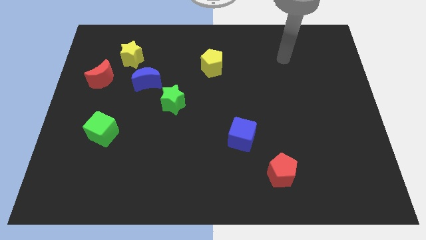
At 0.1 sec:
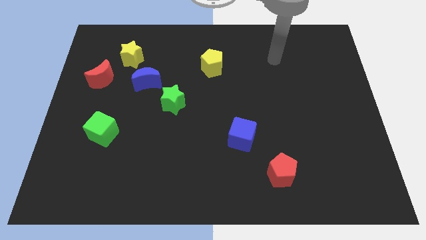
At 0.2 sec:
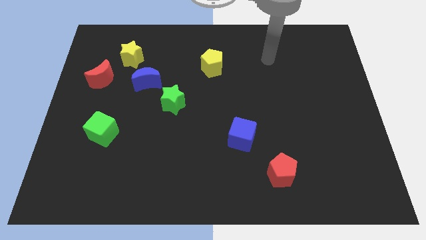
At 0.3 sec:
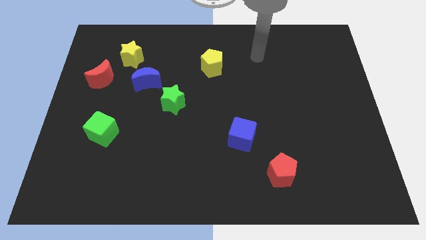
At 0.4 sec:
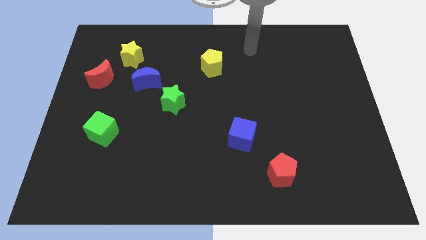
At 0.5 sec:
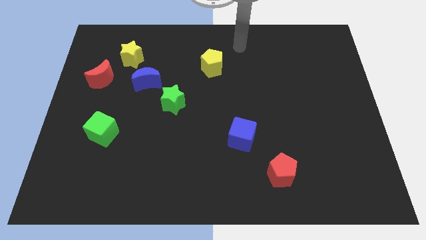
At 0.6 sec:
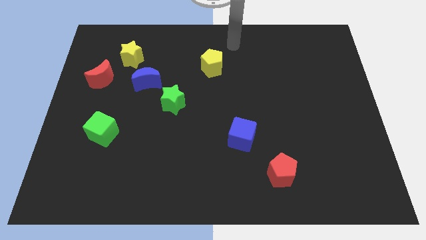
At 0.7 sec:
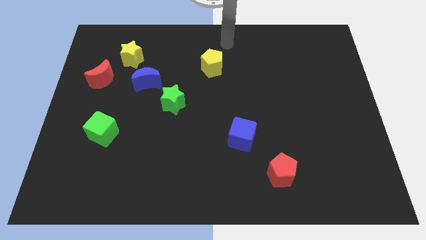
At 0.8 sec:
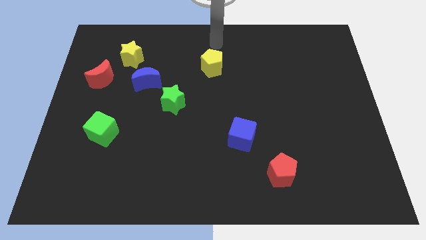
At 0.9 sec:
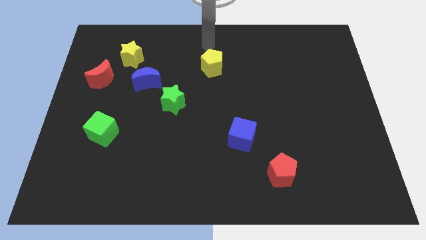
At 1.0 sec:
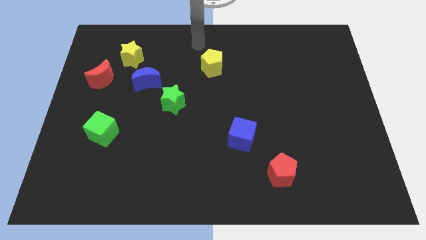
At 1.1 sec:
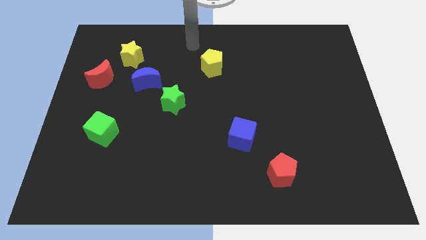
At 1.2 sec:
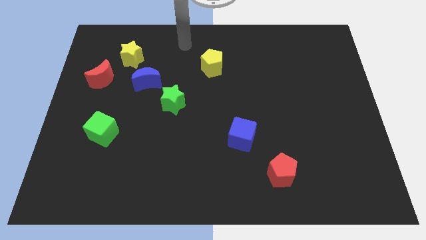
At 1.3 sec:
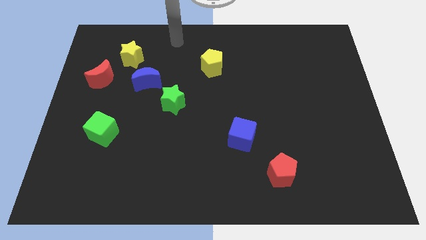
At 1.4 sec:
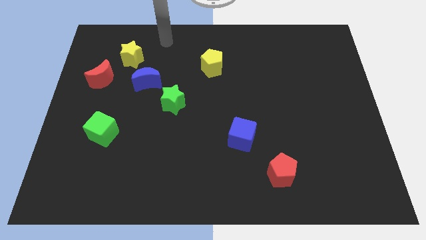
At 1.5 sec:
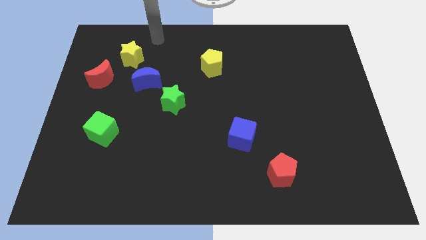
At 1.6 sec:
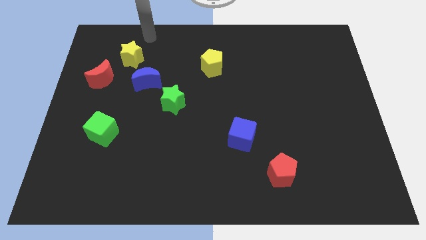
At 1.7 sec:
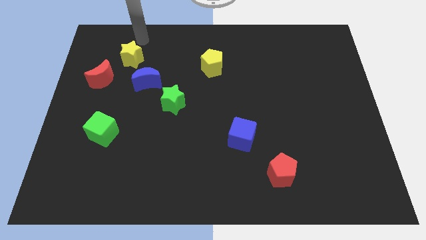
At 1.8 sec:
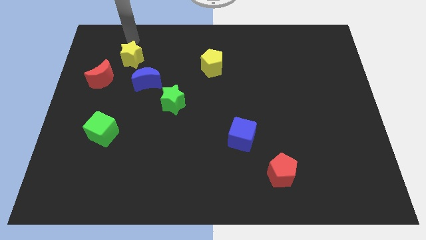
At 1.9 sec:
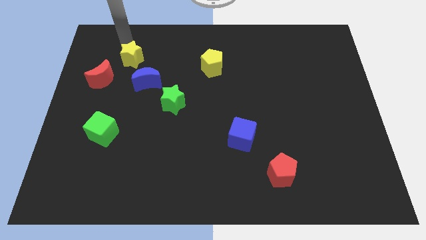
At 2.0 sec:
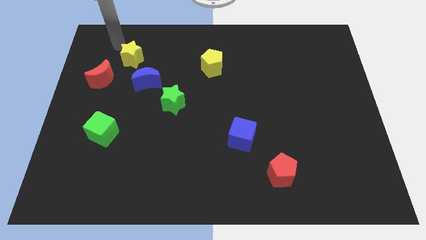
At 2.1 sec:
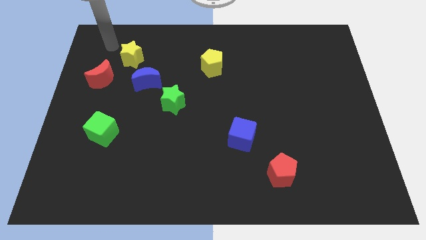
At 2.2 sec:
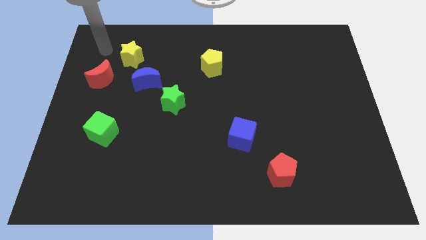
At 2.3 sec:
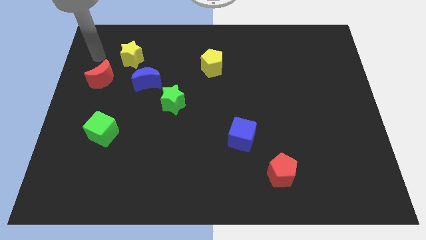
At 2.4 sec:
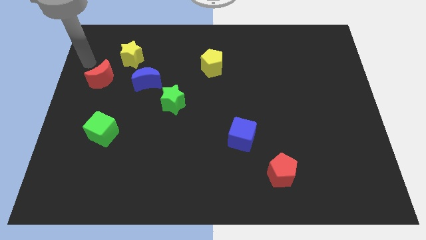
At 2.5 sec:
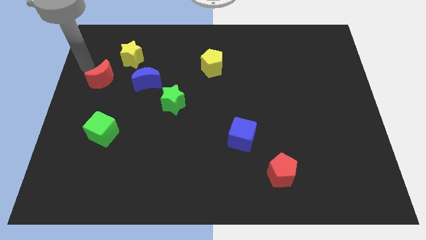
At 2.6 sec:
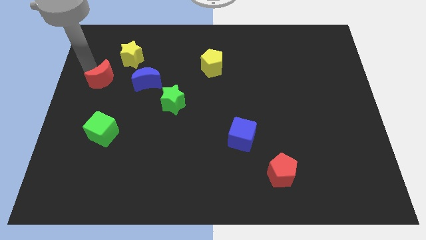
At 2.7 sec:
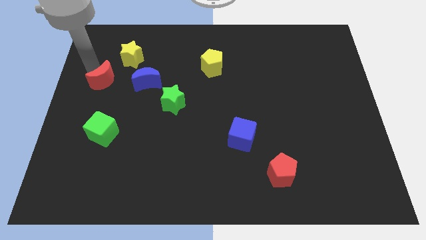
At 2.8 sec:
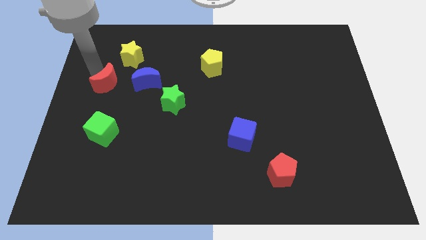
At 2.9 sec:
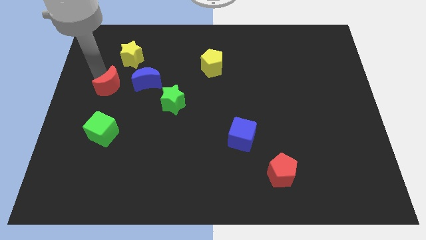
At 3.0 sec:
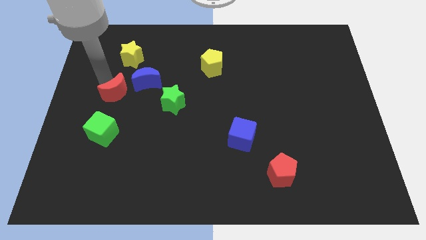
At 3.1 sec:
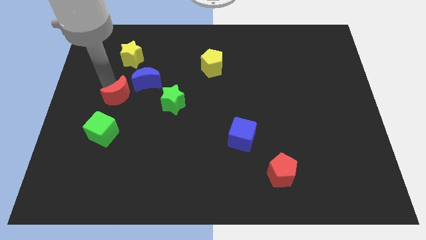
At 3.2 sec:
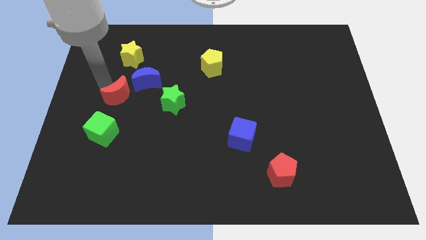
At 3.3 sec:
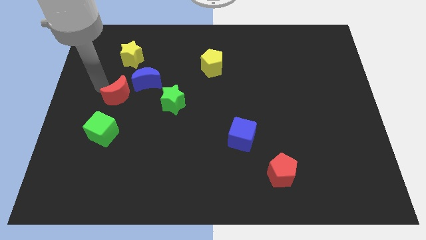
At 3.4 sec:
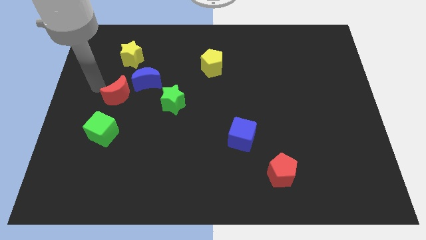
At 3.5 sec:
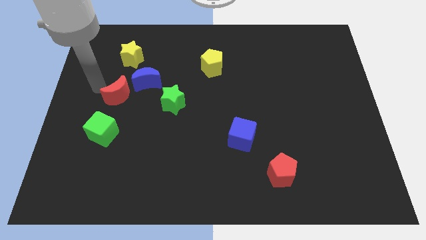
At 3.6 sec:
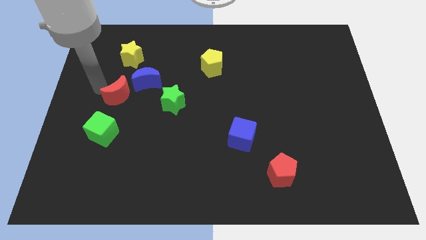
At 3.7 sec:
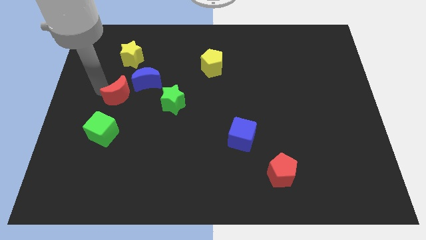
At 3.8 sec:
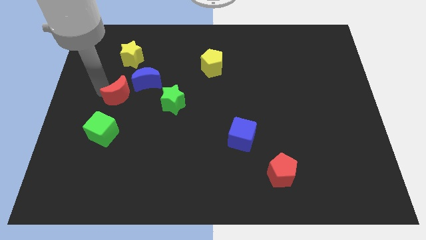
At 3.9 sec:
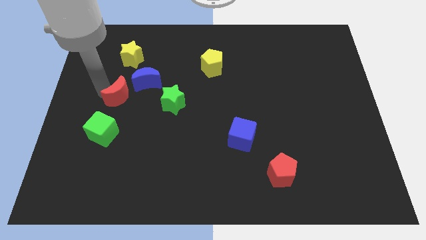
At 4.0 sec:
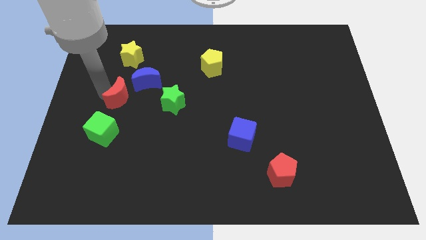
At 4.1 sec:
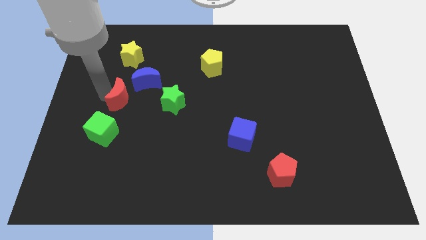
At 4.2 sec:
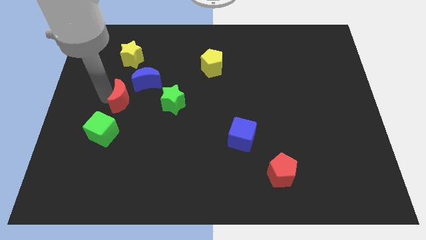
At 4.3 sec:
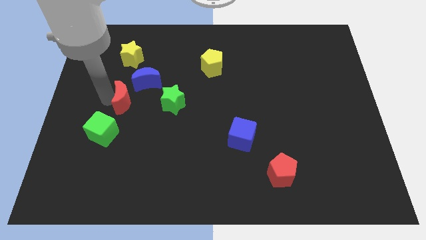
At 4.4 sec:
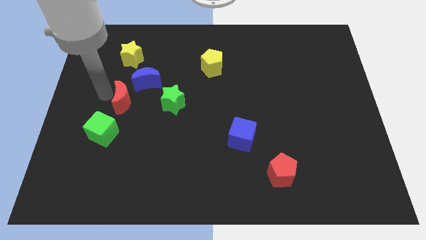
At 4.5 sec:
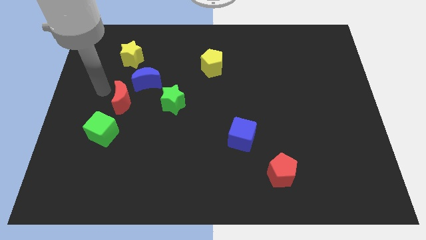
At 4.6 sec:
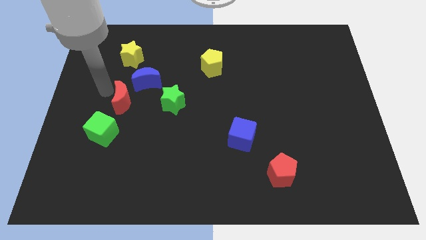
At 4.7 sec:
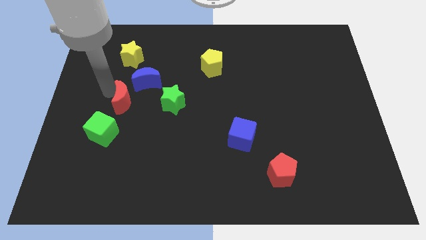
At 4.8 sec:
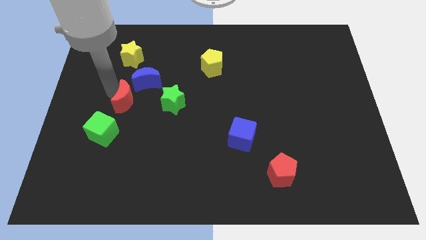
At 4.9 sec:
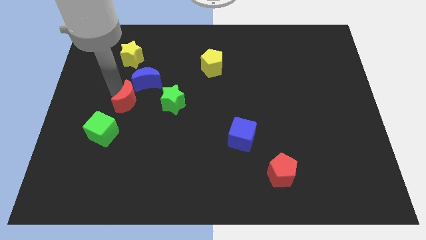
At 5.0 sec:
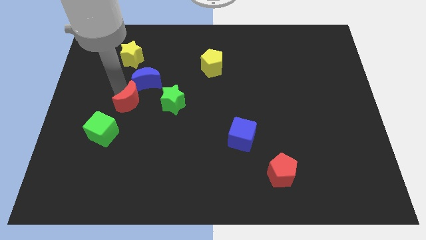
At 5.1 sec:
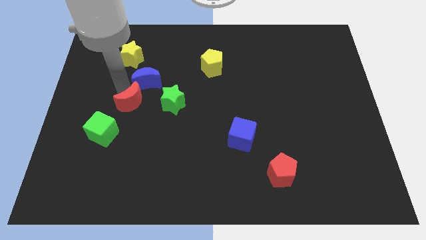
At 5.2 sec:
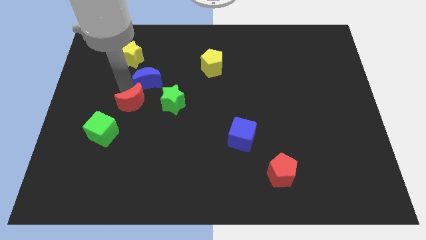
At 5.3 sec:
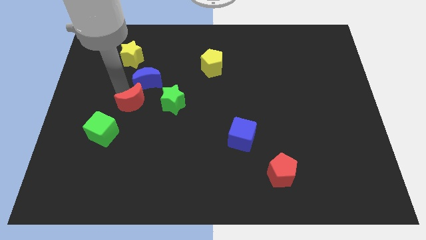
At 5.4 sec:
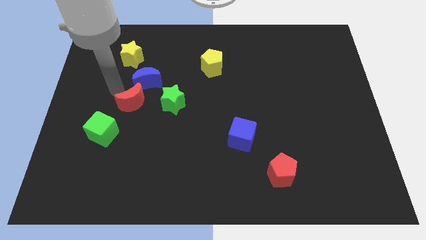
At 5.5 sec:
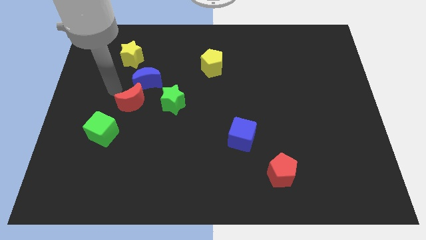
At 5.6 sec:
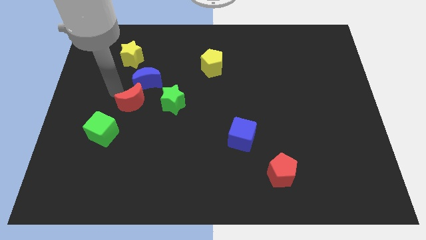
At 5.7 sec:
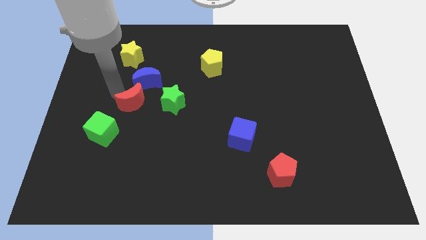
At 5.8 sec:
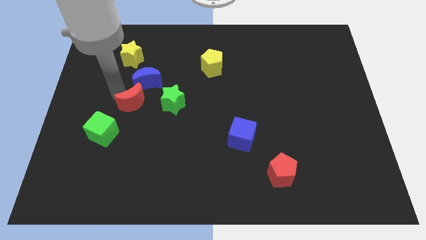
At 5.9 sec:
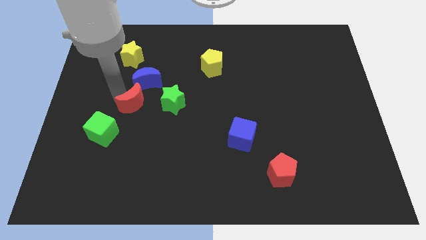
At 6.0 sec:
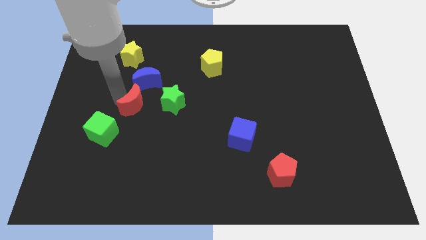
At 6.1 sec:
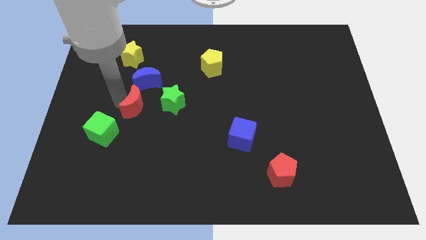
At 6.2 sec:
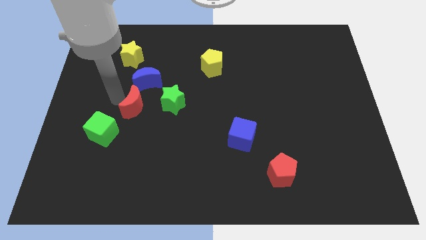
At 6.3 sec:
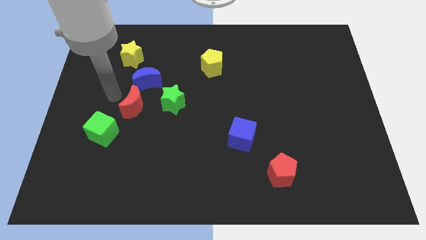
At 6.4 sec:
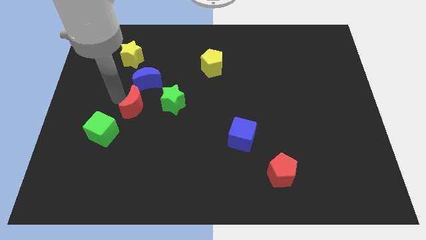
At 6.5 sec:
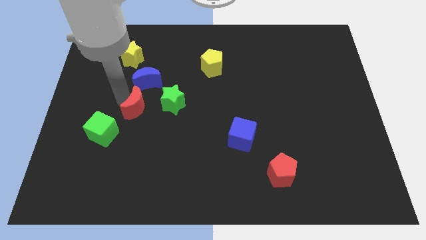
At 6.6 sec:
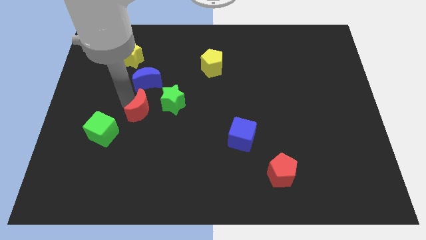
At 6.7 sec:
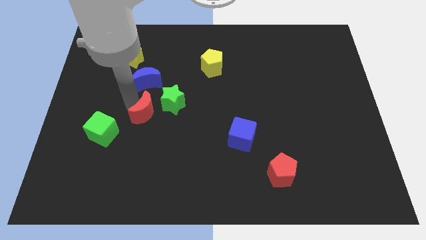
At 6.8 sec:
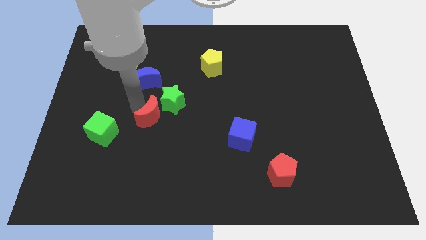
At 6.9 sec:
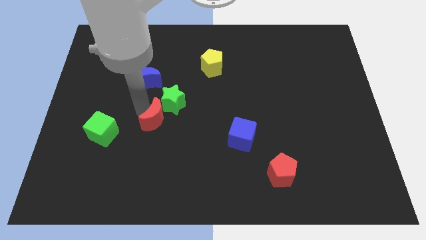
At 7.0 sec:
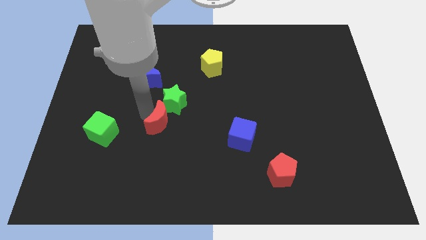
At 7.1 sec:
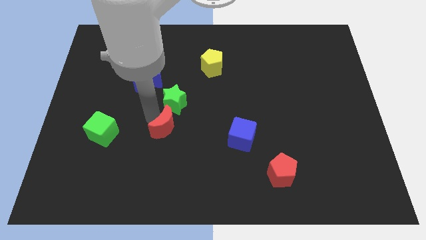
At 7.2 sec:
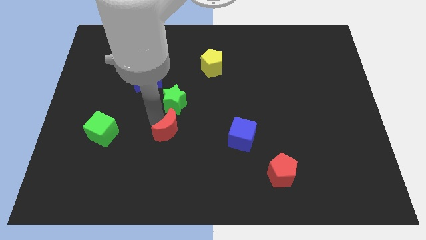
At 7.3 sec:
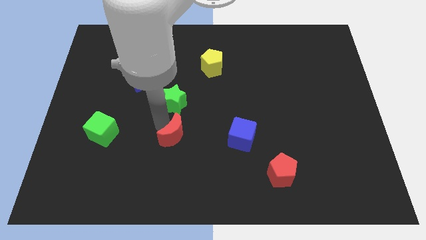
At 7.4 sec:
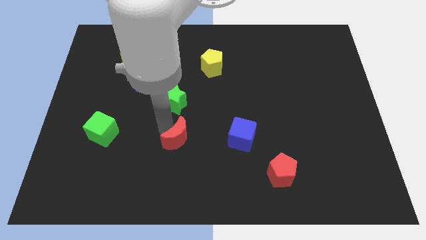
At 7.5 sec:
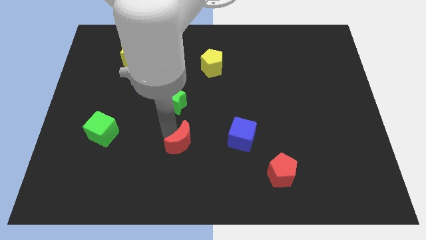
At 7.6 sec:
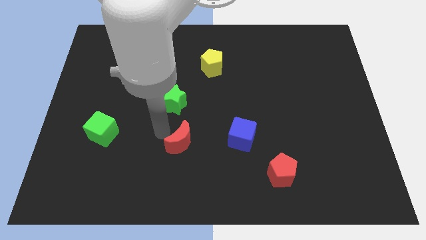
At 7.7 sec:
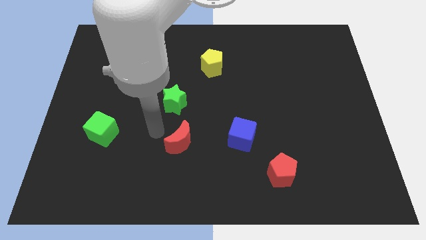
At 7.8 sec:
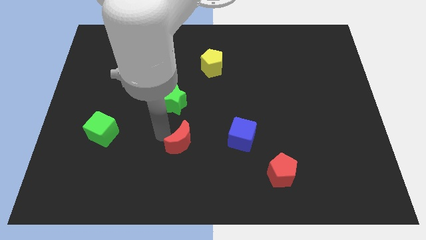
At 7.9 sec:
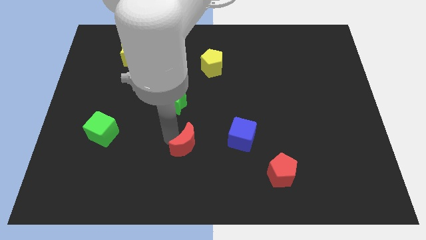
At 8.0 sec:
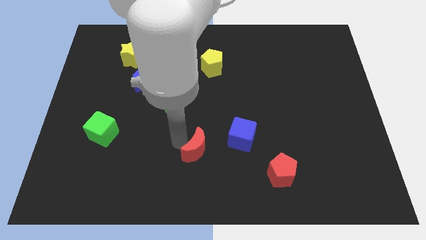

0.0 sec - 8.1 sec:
slide the red moon to the bottom left of the blue cube
